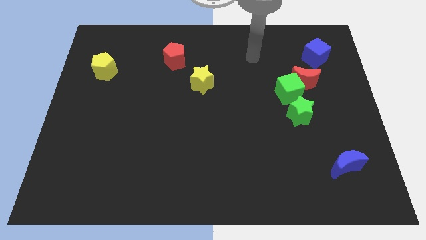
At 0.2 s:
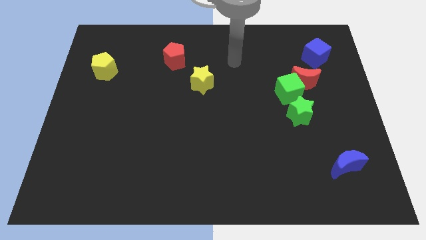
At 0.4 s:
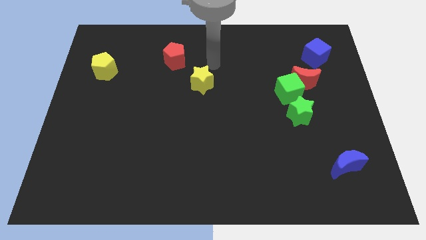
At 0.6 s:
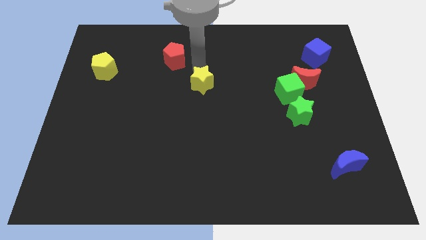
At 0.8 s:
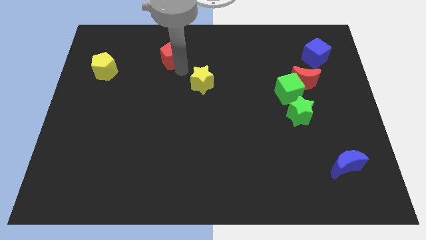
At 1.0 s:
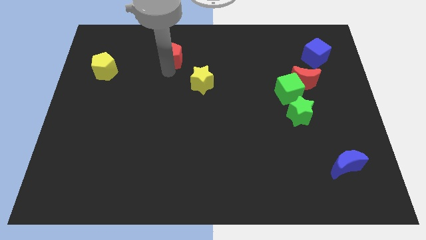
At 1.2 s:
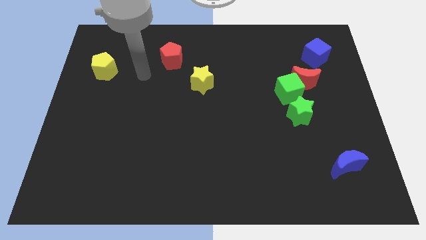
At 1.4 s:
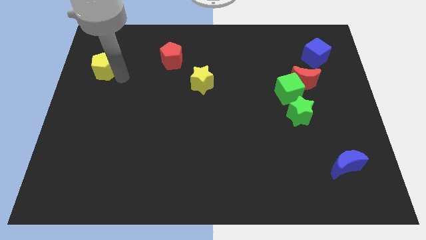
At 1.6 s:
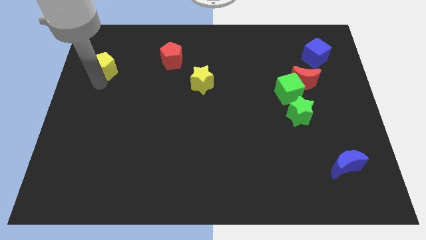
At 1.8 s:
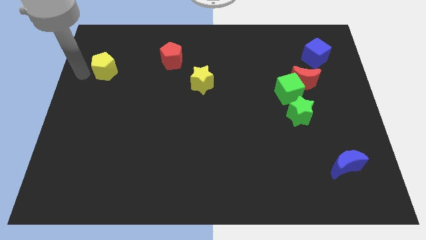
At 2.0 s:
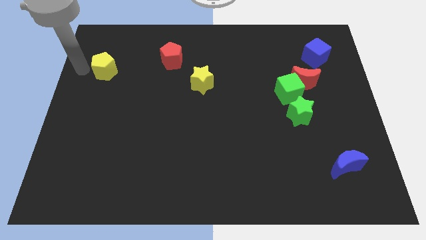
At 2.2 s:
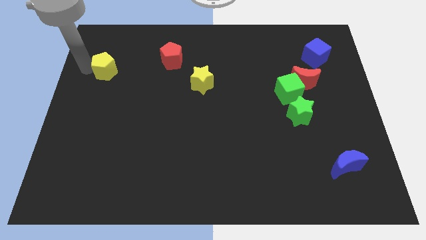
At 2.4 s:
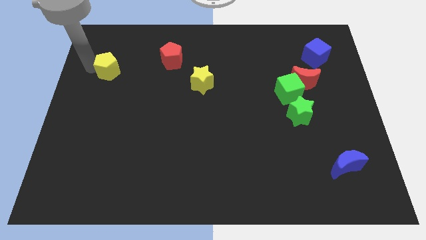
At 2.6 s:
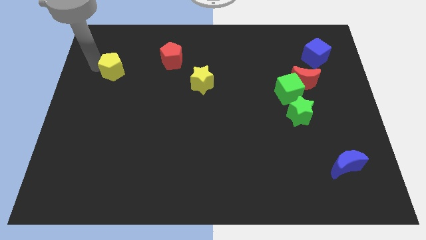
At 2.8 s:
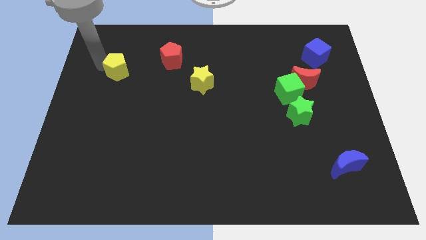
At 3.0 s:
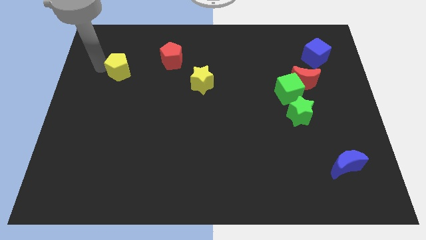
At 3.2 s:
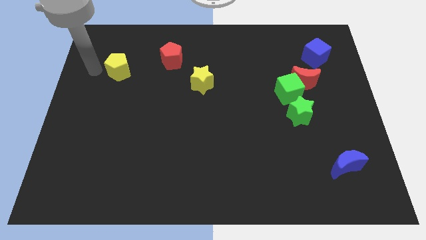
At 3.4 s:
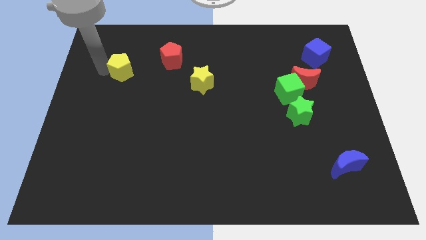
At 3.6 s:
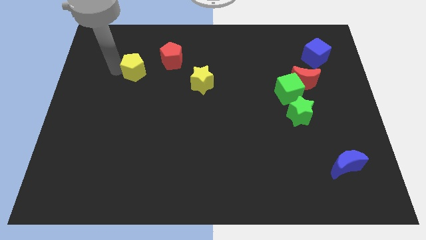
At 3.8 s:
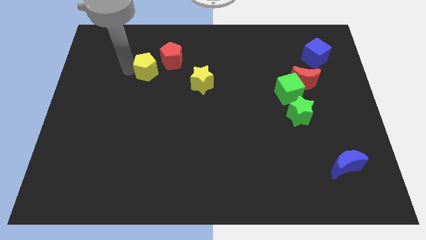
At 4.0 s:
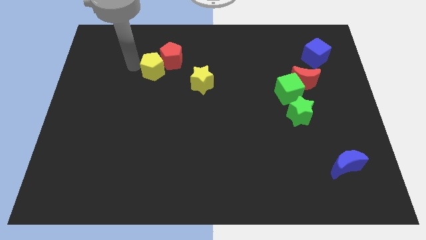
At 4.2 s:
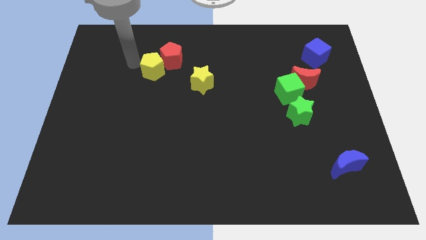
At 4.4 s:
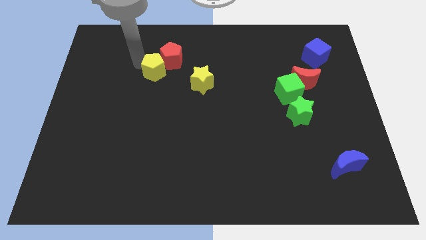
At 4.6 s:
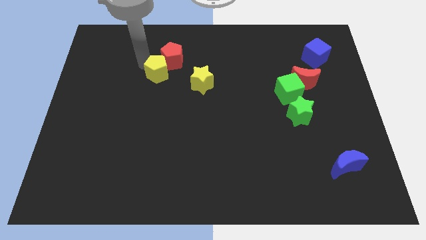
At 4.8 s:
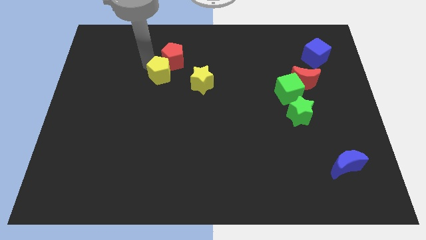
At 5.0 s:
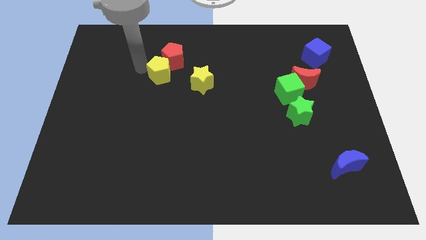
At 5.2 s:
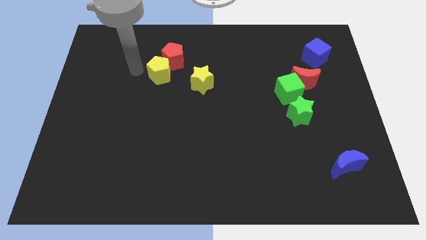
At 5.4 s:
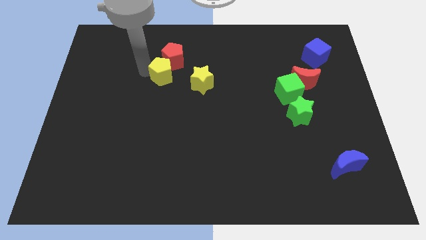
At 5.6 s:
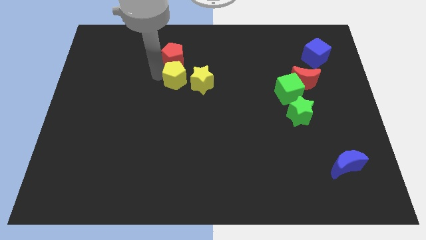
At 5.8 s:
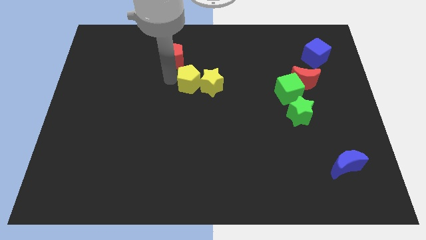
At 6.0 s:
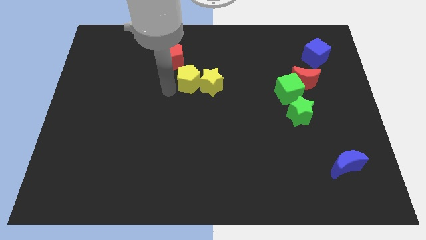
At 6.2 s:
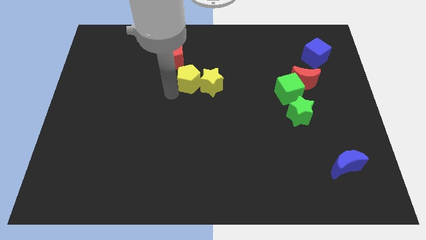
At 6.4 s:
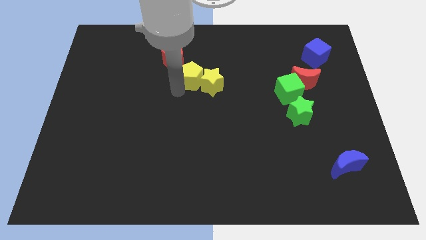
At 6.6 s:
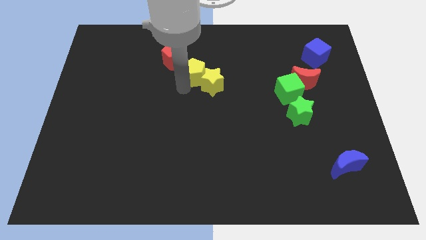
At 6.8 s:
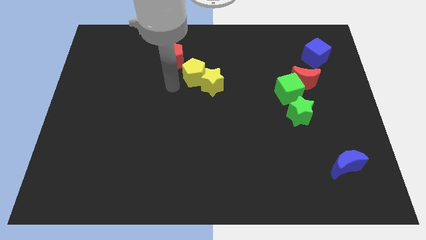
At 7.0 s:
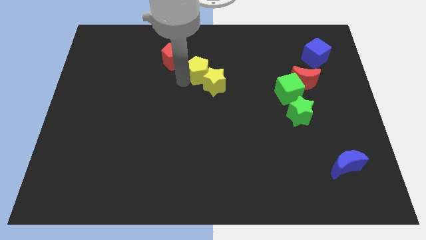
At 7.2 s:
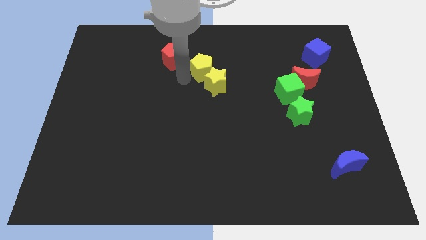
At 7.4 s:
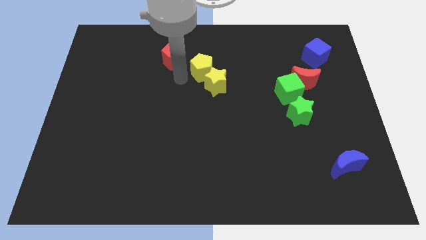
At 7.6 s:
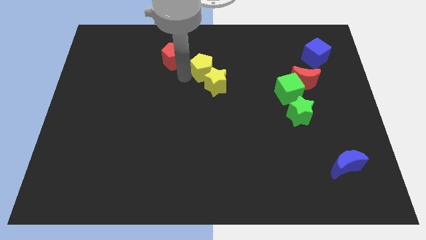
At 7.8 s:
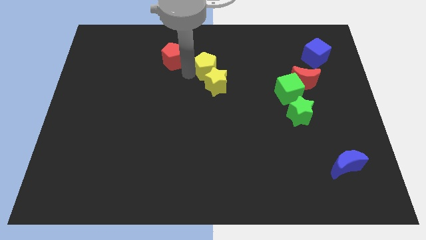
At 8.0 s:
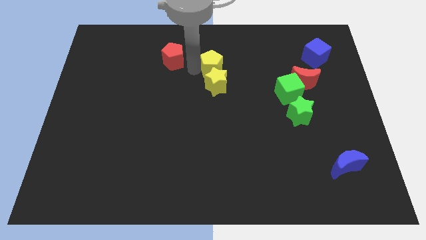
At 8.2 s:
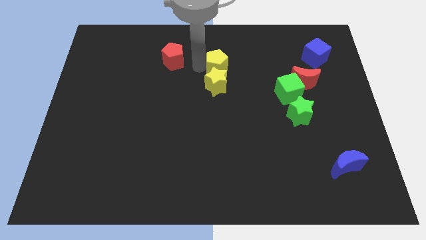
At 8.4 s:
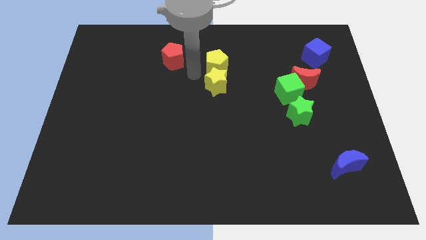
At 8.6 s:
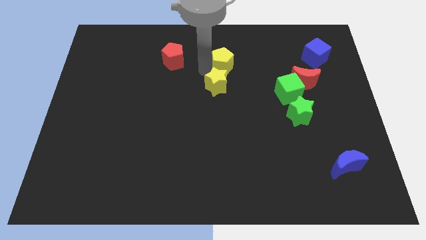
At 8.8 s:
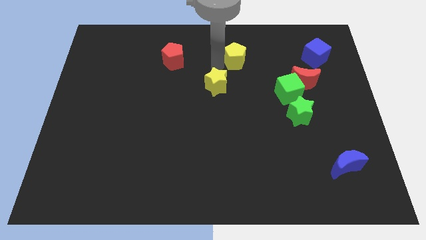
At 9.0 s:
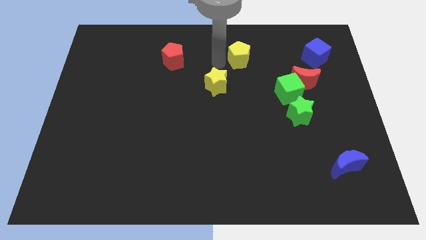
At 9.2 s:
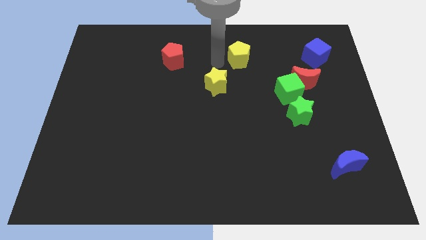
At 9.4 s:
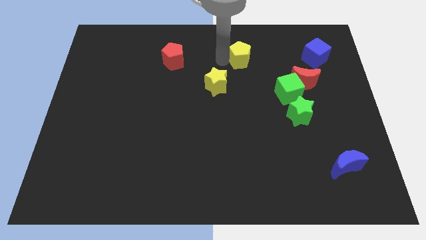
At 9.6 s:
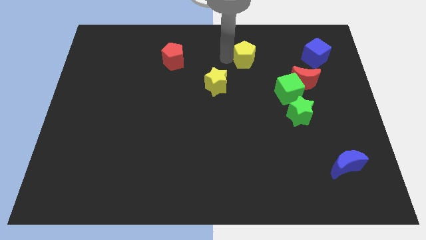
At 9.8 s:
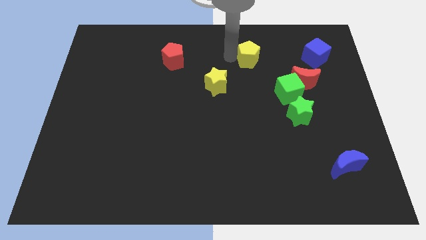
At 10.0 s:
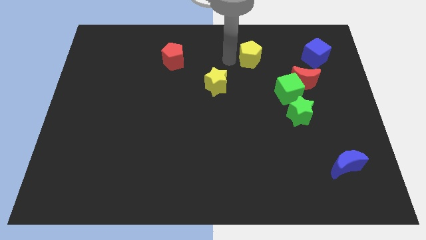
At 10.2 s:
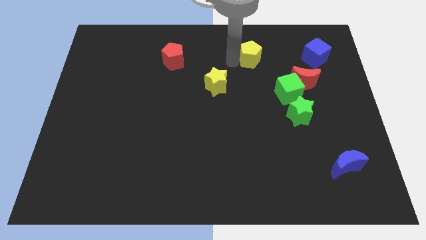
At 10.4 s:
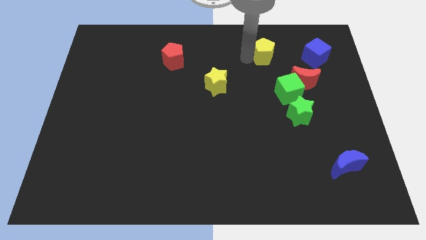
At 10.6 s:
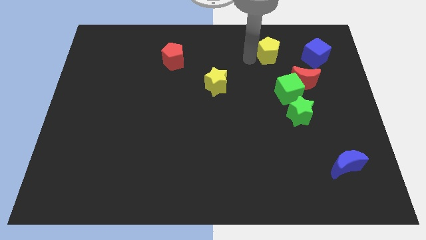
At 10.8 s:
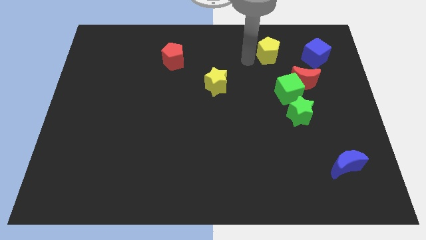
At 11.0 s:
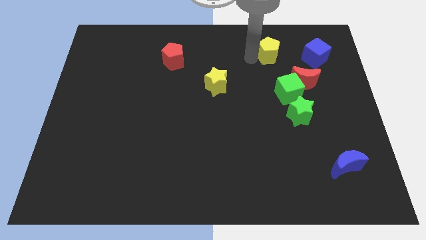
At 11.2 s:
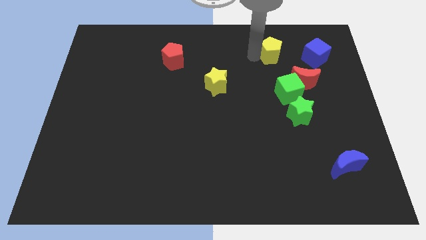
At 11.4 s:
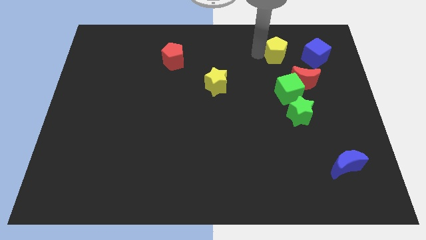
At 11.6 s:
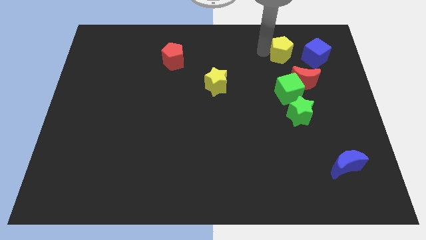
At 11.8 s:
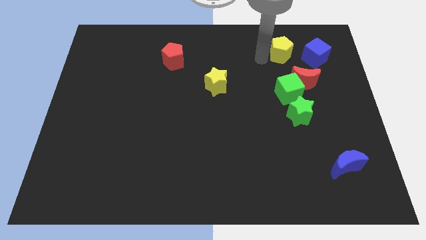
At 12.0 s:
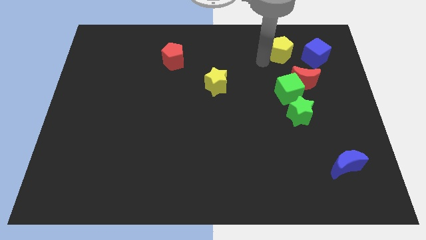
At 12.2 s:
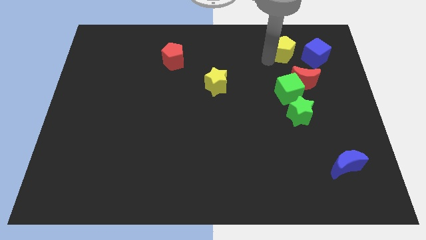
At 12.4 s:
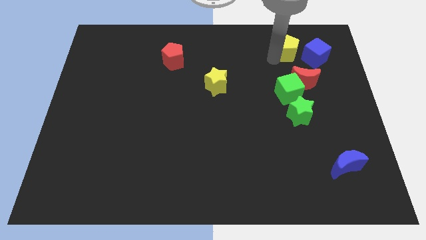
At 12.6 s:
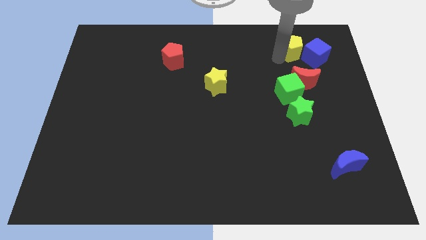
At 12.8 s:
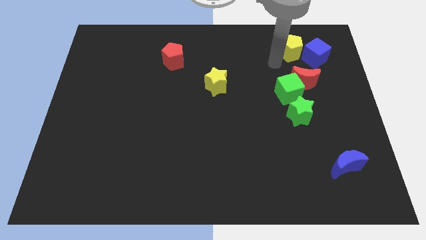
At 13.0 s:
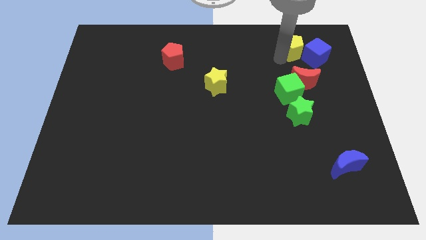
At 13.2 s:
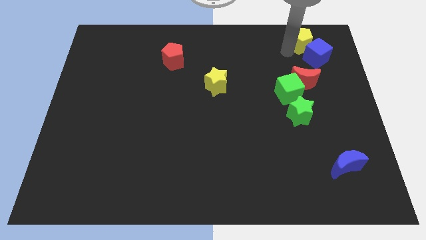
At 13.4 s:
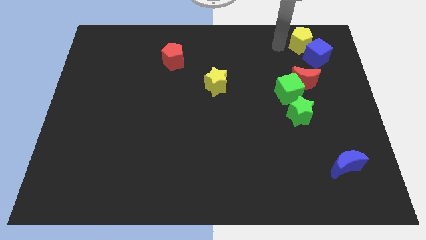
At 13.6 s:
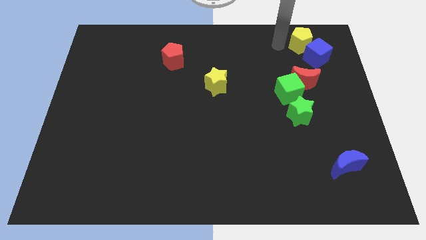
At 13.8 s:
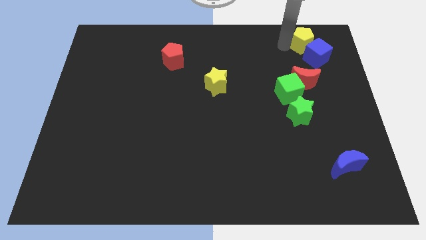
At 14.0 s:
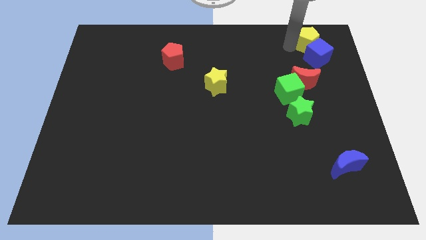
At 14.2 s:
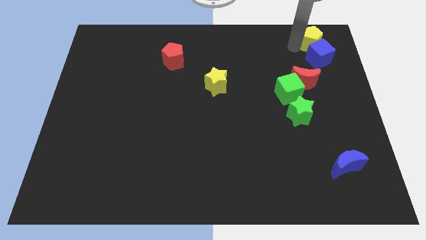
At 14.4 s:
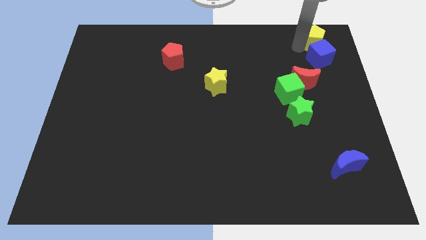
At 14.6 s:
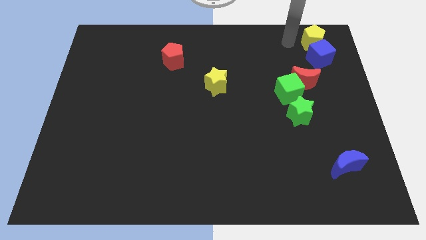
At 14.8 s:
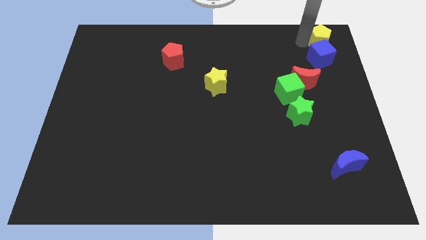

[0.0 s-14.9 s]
push the yellow pentagon to the upper right corner
